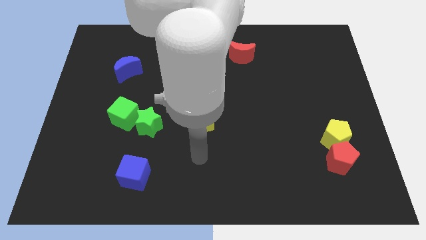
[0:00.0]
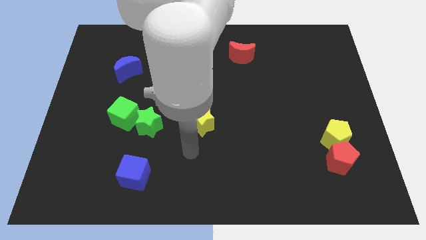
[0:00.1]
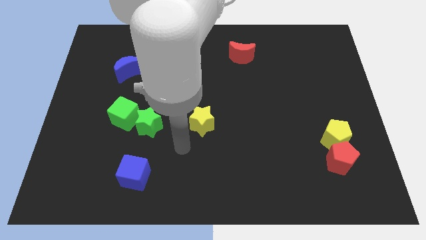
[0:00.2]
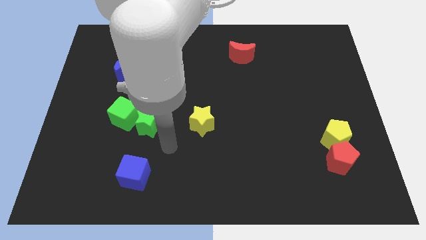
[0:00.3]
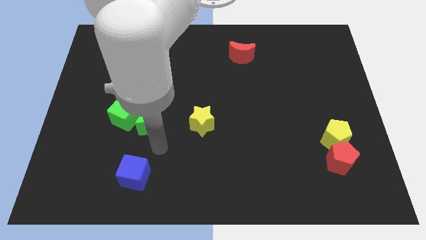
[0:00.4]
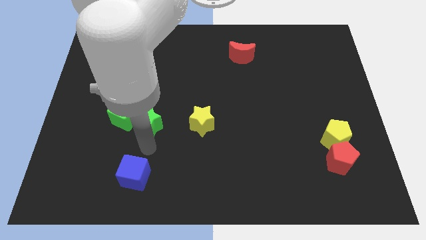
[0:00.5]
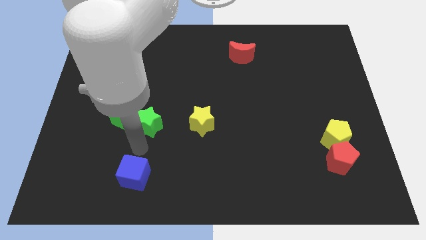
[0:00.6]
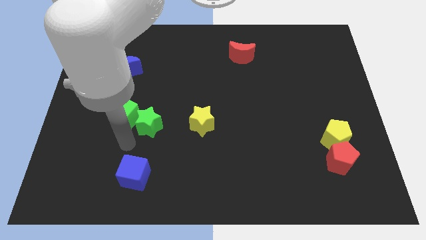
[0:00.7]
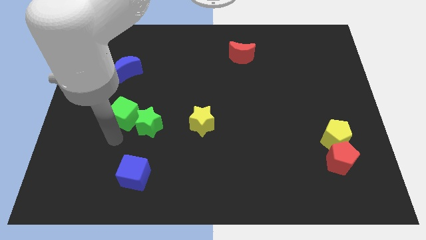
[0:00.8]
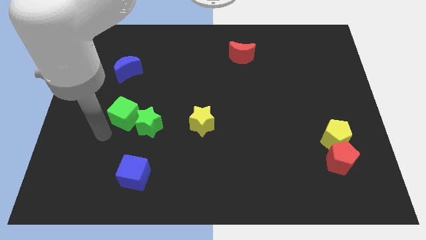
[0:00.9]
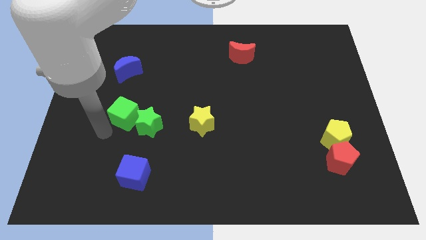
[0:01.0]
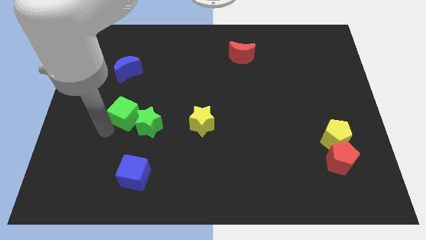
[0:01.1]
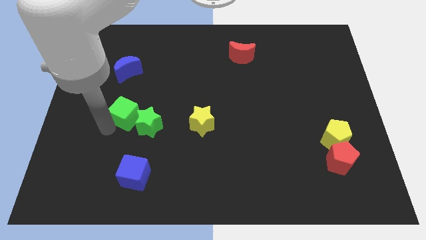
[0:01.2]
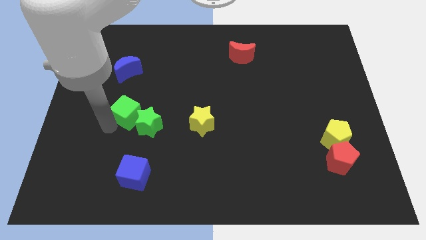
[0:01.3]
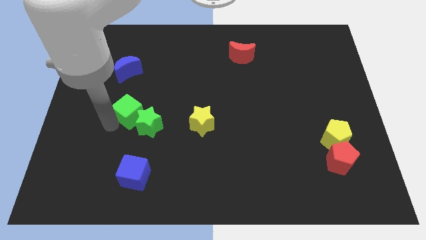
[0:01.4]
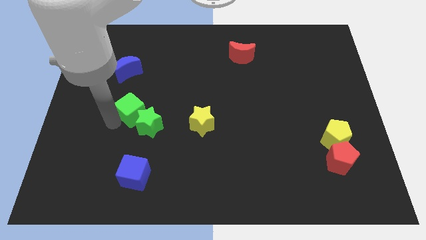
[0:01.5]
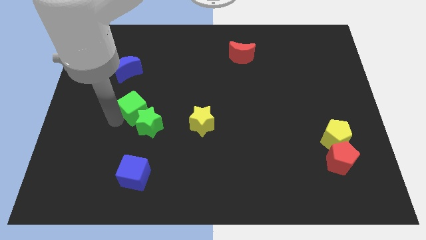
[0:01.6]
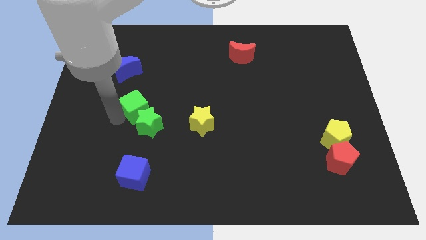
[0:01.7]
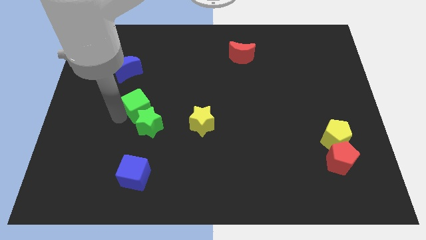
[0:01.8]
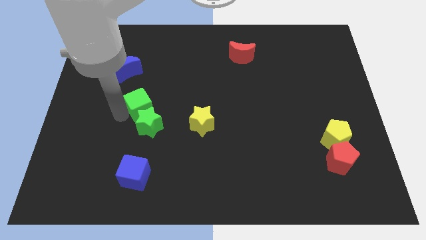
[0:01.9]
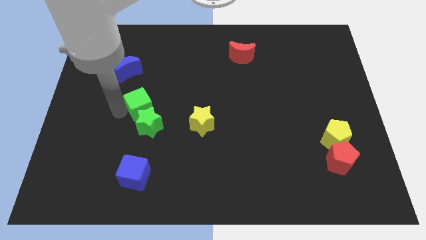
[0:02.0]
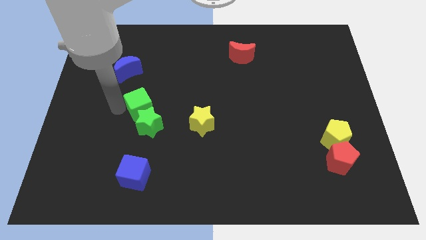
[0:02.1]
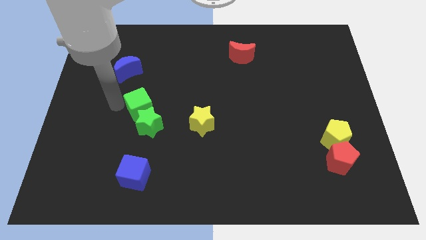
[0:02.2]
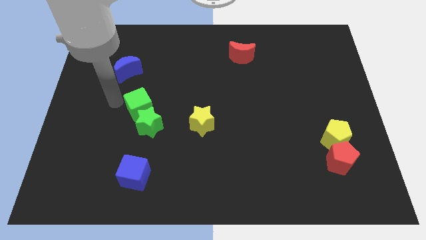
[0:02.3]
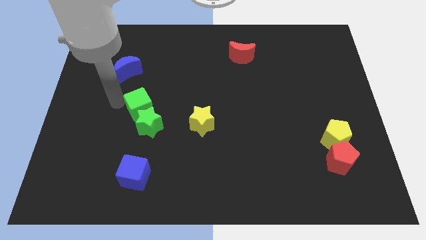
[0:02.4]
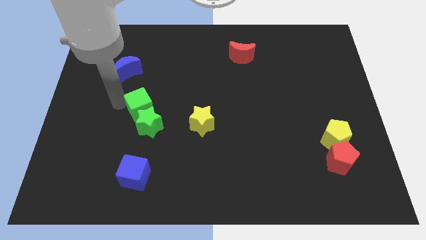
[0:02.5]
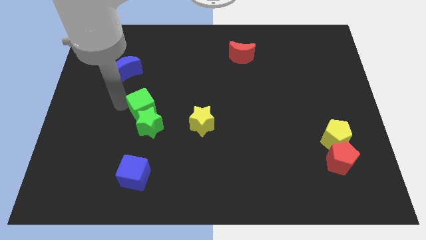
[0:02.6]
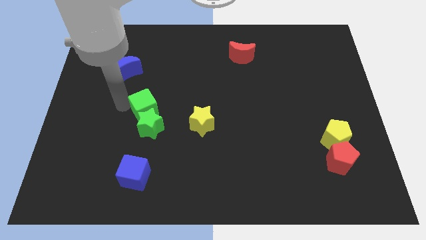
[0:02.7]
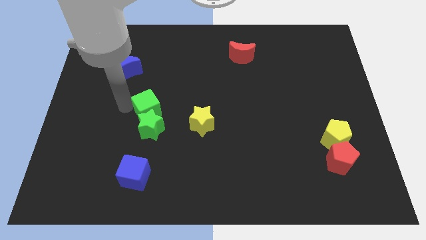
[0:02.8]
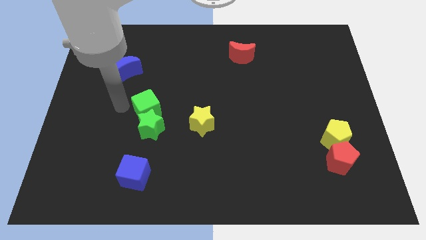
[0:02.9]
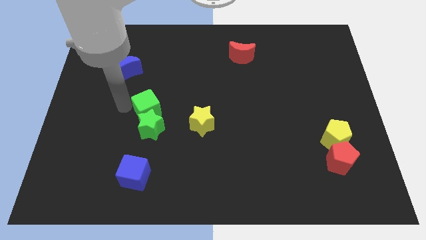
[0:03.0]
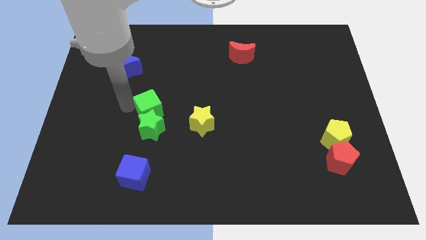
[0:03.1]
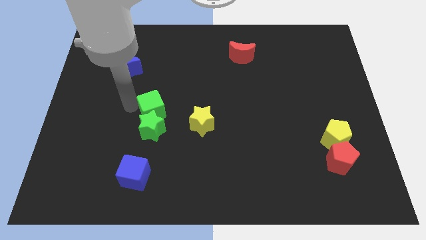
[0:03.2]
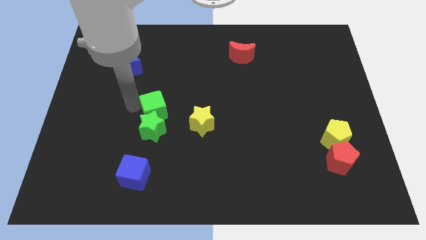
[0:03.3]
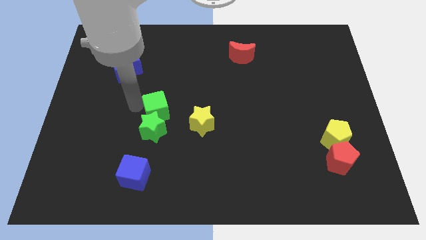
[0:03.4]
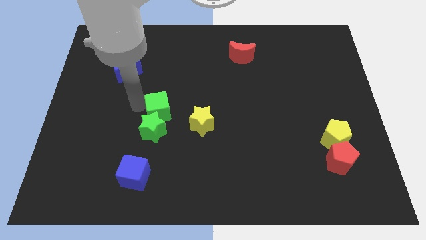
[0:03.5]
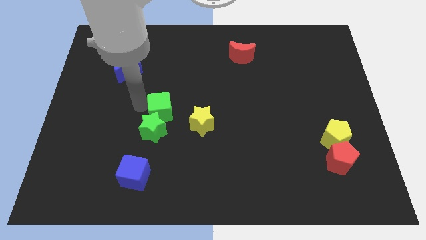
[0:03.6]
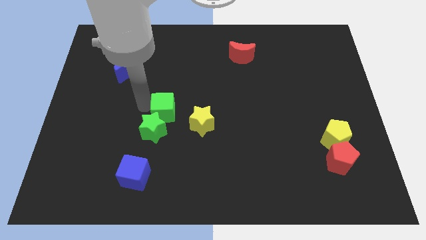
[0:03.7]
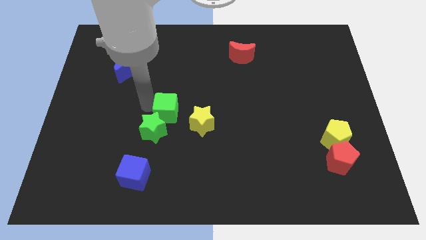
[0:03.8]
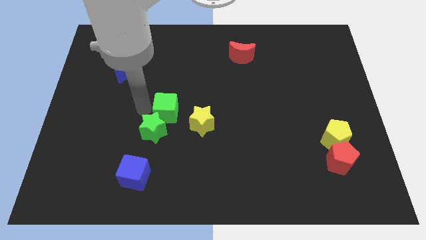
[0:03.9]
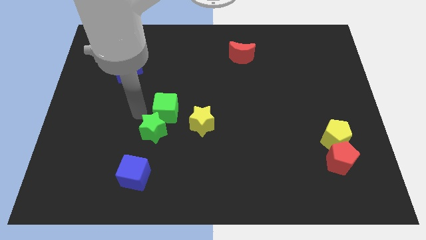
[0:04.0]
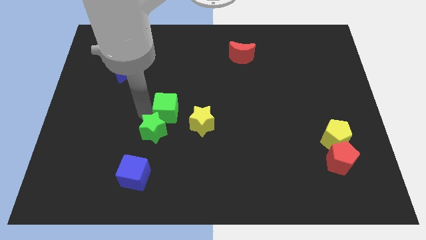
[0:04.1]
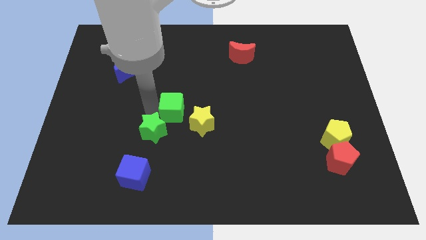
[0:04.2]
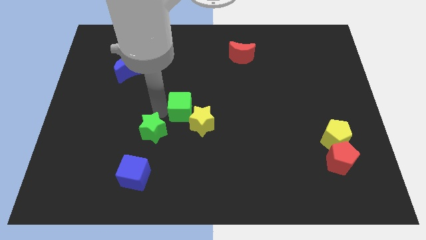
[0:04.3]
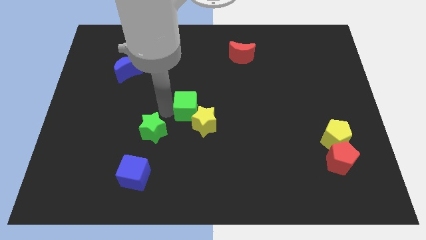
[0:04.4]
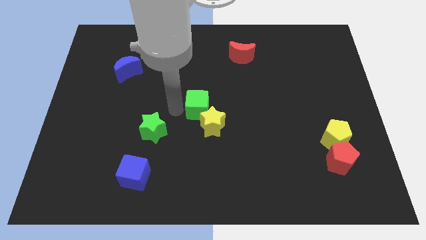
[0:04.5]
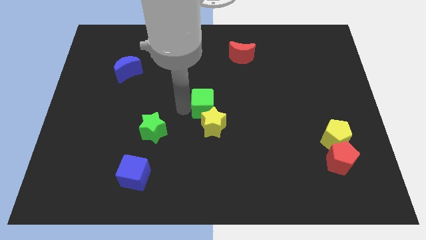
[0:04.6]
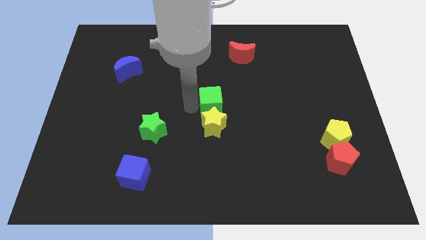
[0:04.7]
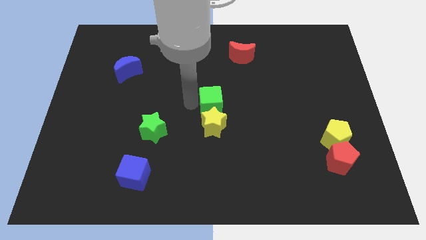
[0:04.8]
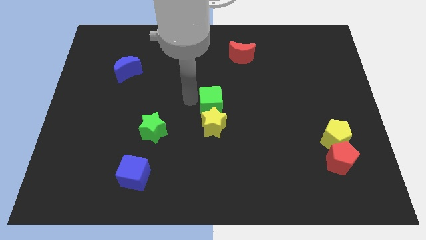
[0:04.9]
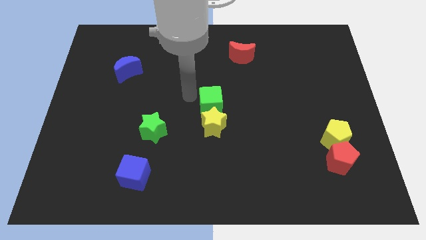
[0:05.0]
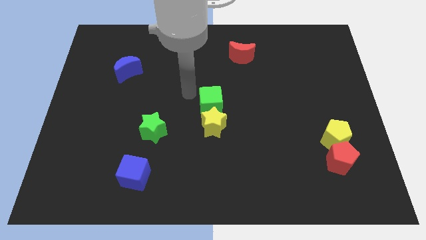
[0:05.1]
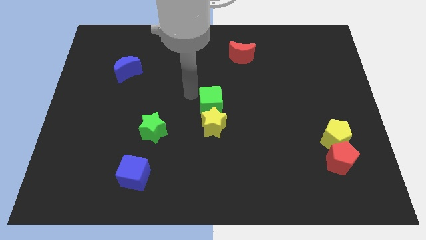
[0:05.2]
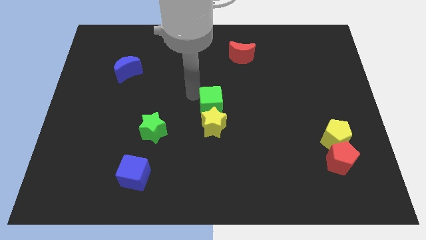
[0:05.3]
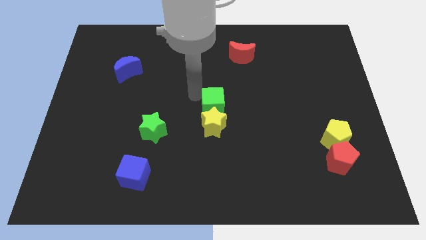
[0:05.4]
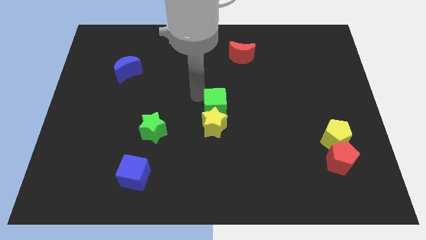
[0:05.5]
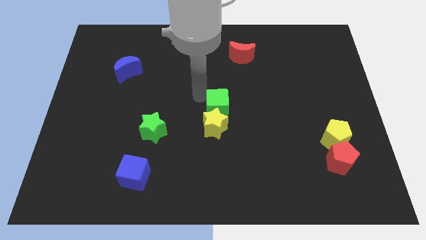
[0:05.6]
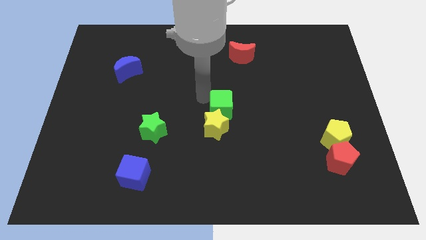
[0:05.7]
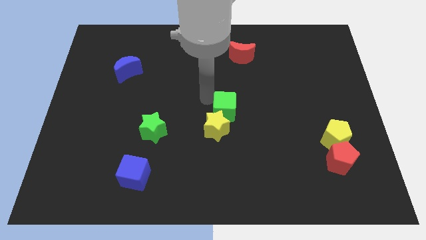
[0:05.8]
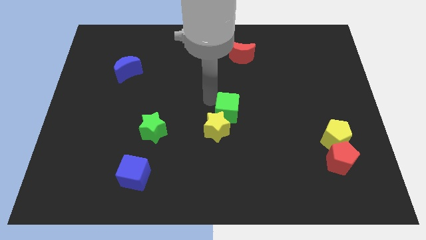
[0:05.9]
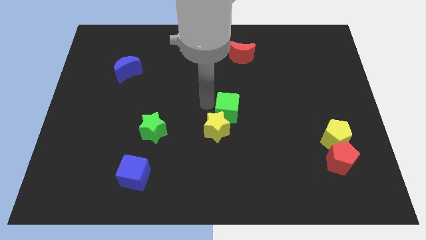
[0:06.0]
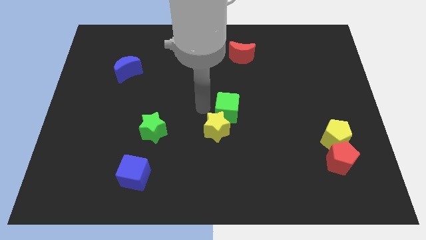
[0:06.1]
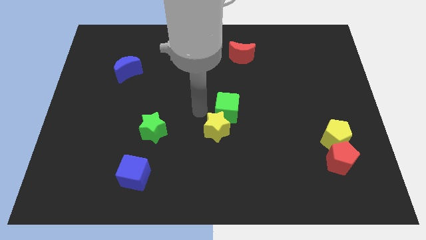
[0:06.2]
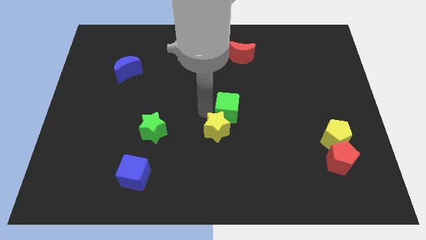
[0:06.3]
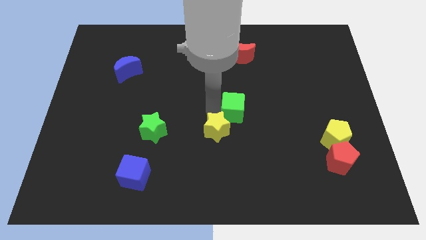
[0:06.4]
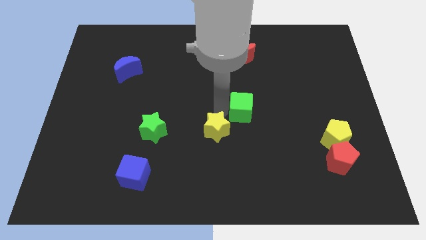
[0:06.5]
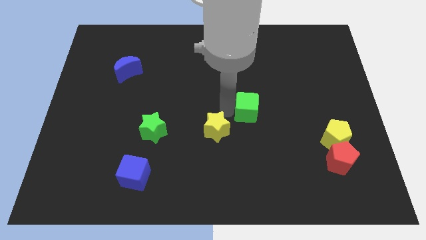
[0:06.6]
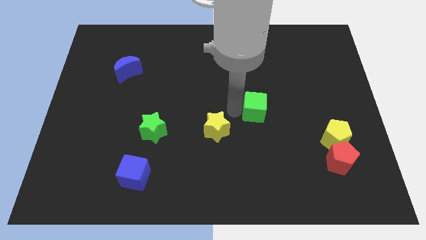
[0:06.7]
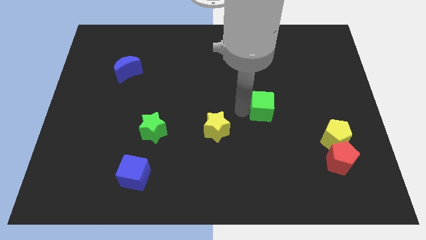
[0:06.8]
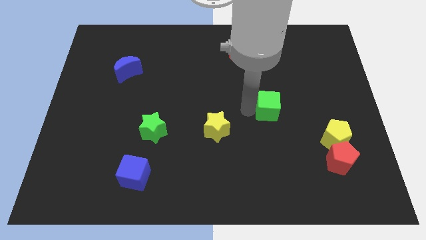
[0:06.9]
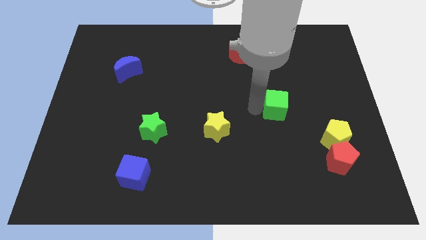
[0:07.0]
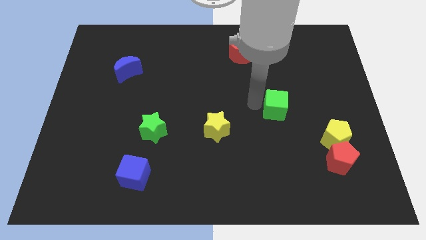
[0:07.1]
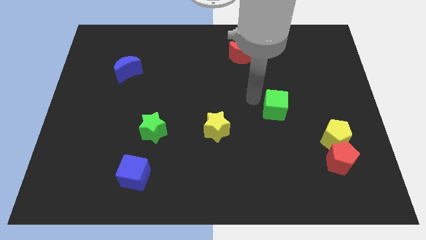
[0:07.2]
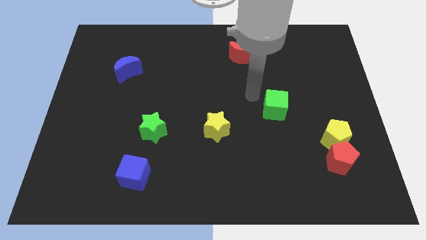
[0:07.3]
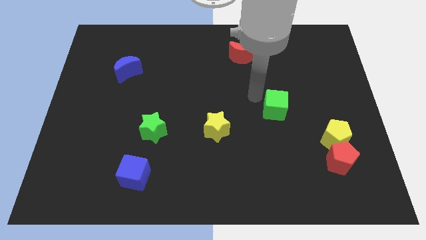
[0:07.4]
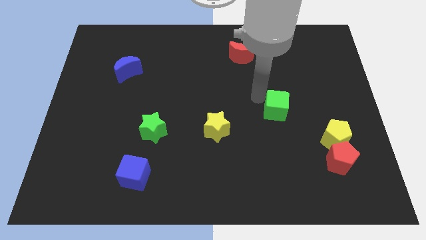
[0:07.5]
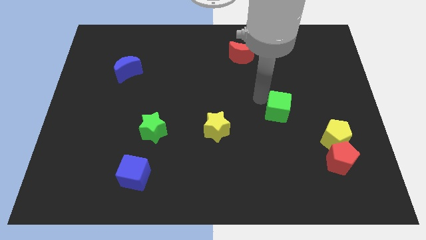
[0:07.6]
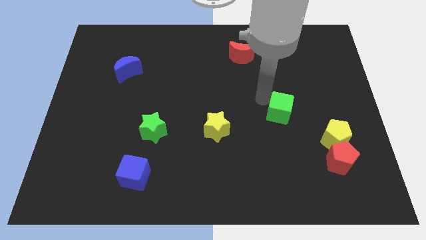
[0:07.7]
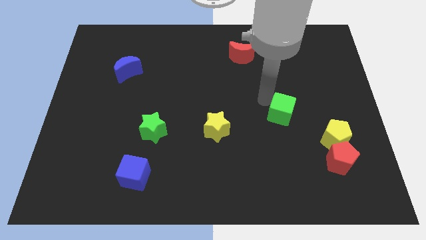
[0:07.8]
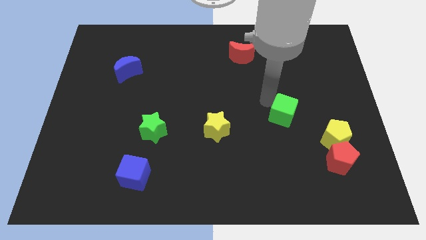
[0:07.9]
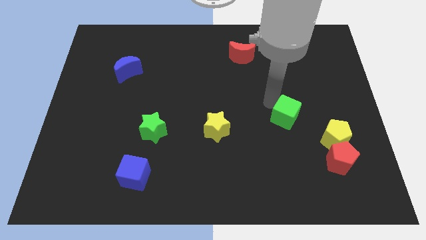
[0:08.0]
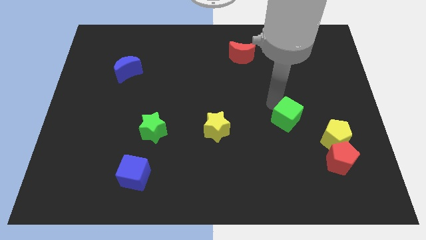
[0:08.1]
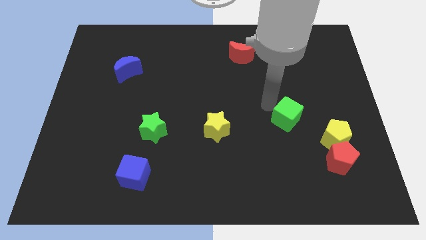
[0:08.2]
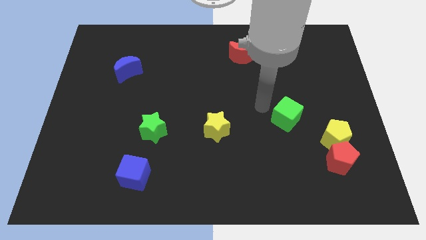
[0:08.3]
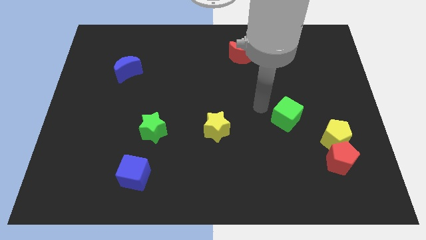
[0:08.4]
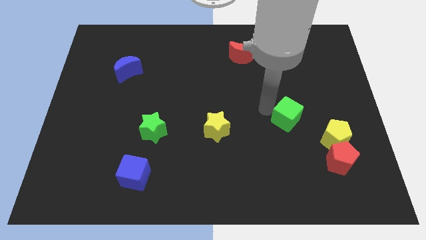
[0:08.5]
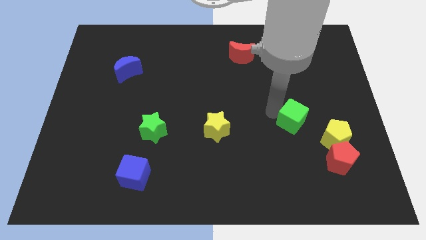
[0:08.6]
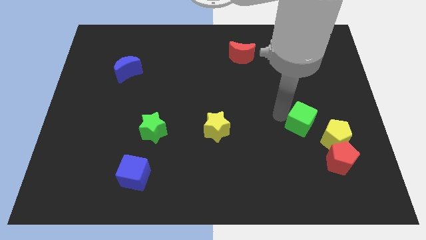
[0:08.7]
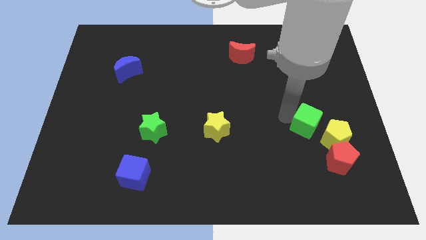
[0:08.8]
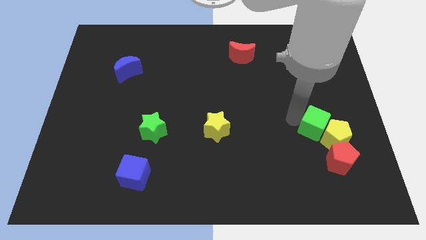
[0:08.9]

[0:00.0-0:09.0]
move the green cube towards the yellow pentagon
